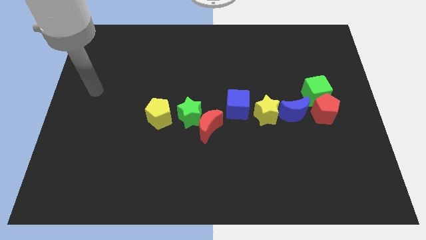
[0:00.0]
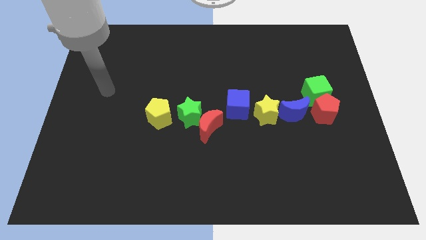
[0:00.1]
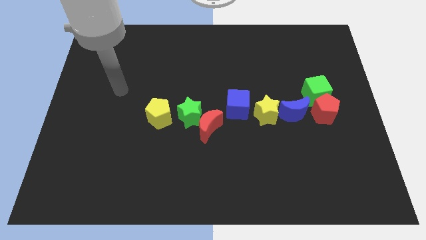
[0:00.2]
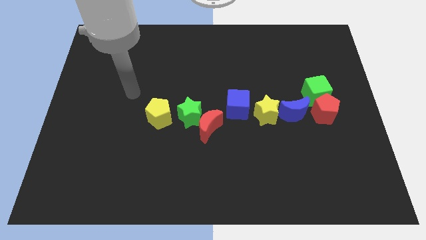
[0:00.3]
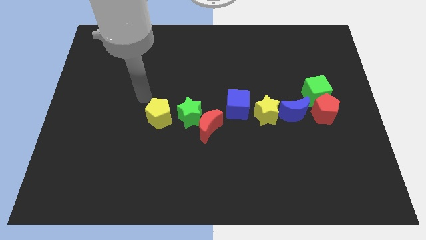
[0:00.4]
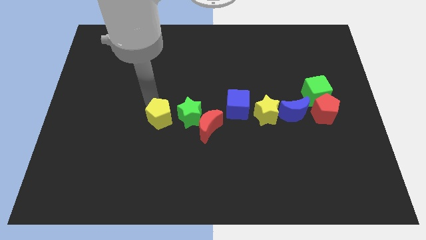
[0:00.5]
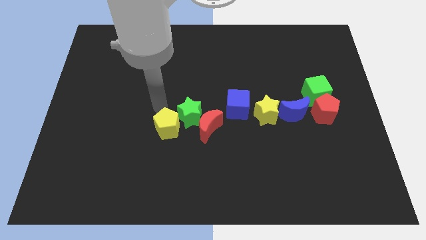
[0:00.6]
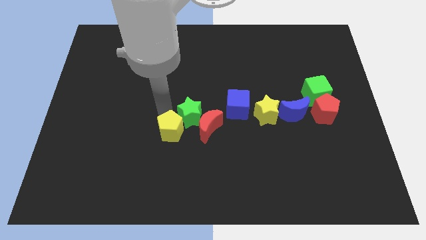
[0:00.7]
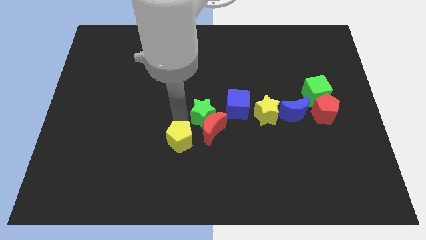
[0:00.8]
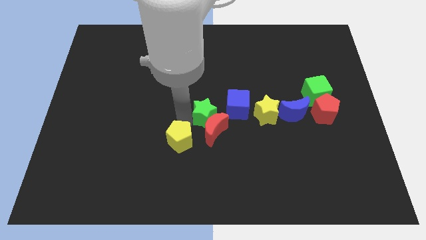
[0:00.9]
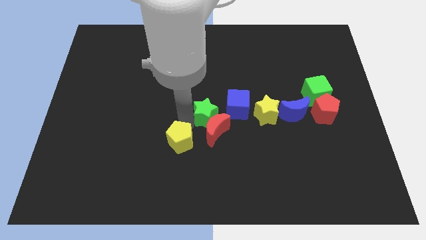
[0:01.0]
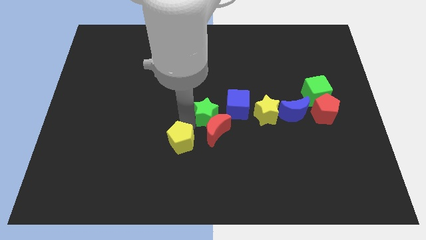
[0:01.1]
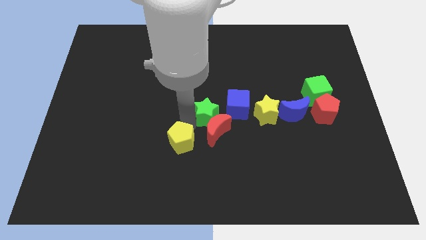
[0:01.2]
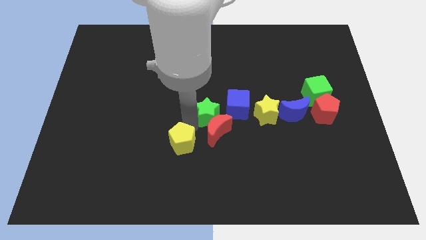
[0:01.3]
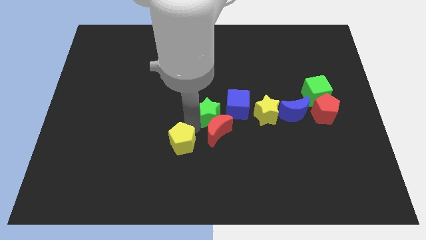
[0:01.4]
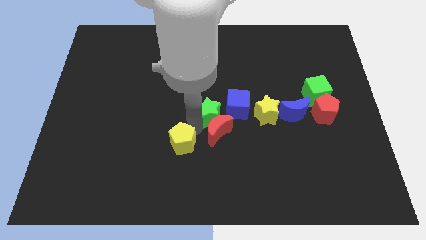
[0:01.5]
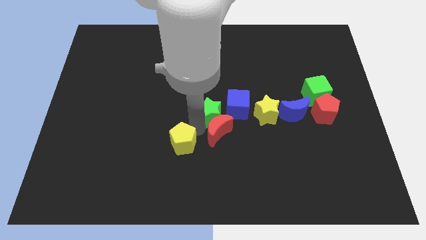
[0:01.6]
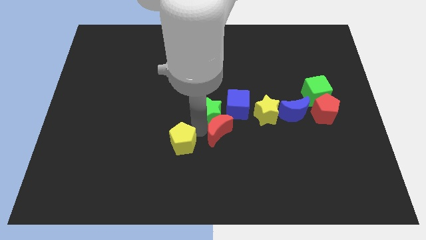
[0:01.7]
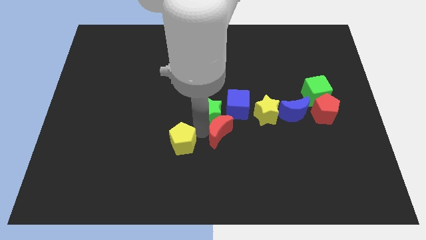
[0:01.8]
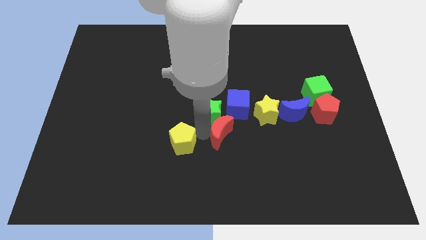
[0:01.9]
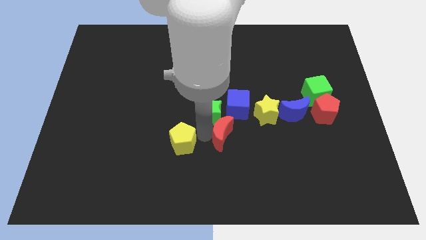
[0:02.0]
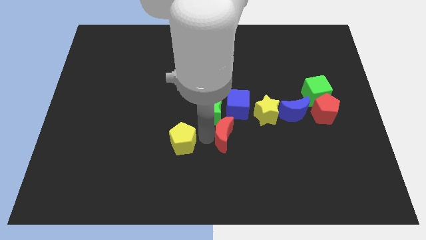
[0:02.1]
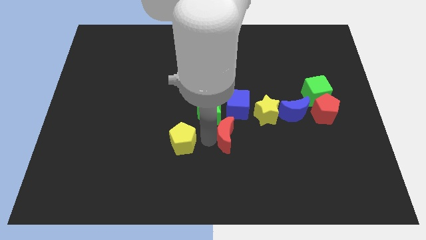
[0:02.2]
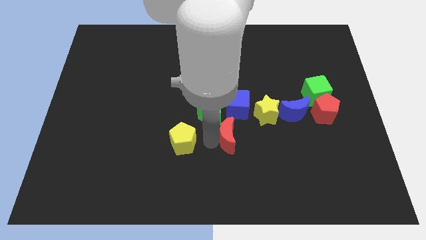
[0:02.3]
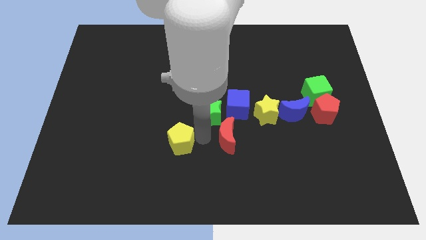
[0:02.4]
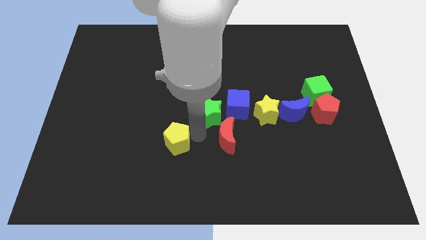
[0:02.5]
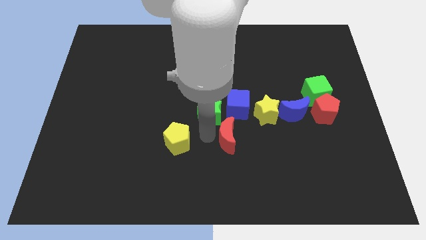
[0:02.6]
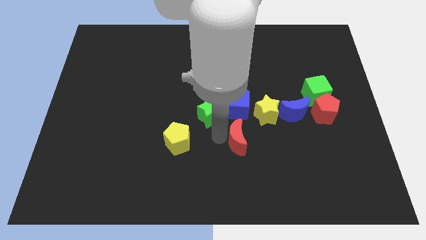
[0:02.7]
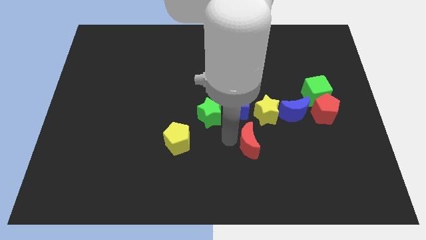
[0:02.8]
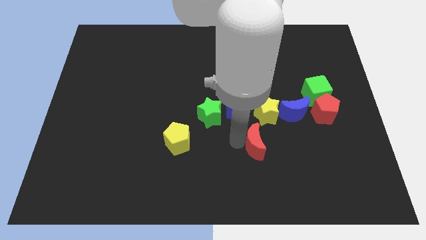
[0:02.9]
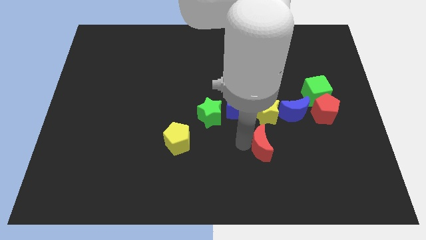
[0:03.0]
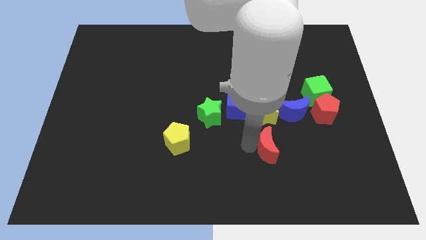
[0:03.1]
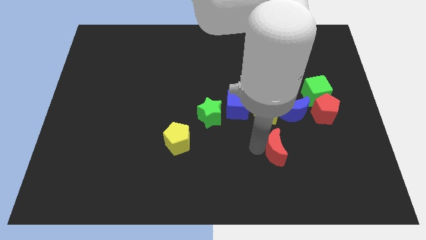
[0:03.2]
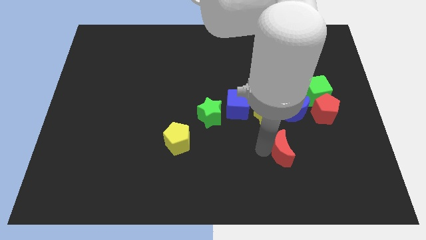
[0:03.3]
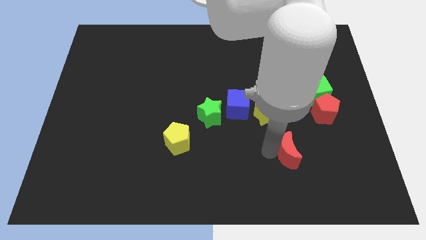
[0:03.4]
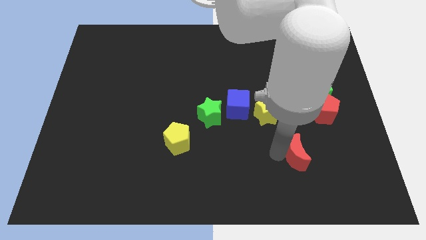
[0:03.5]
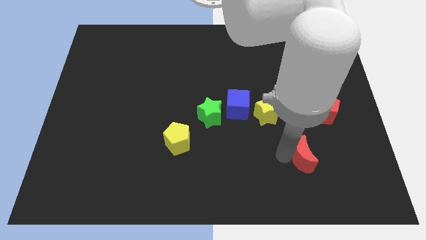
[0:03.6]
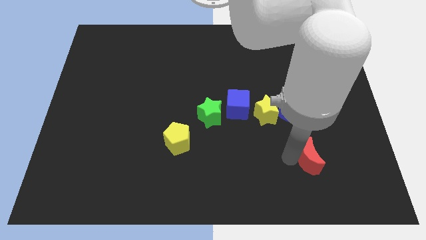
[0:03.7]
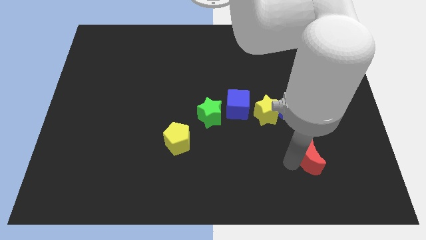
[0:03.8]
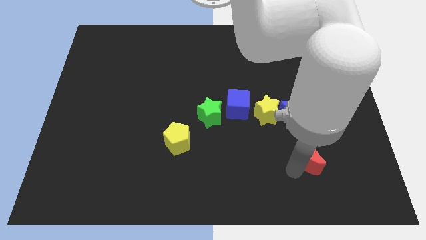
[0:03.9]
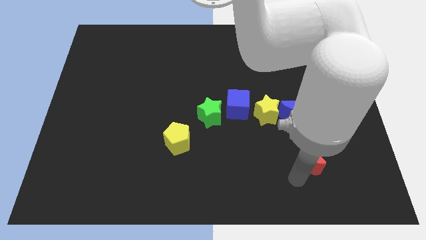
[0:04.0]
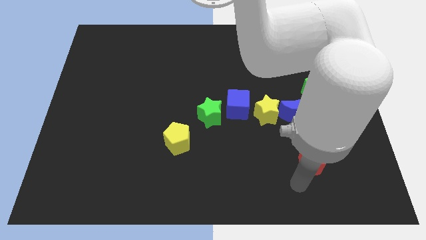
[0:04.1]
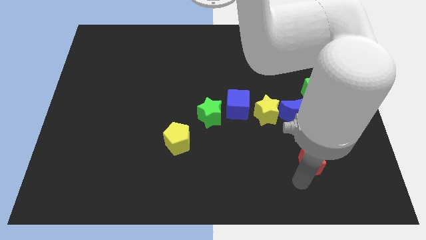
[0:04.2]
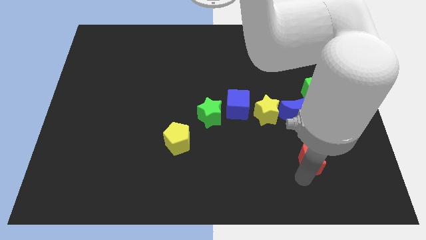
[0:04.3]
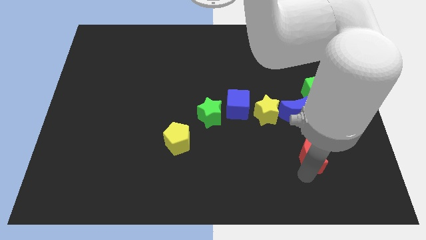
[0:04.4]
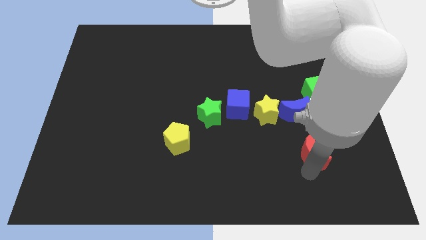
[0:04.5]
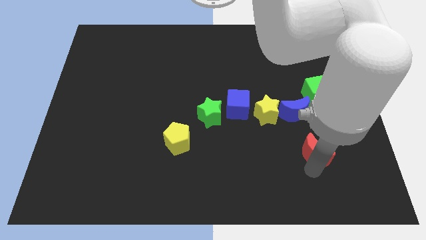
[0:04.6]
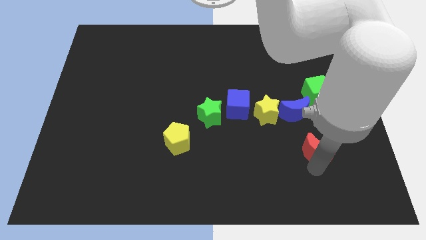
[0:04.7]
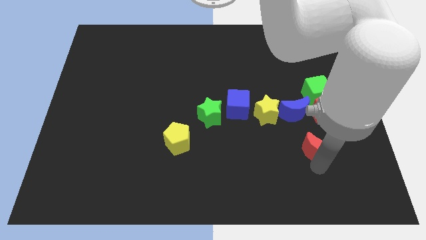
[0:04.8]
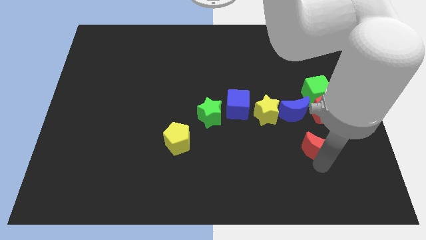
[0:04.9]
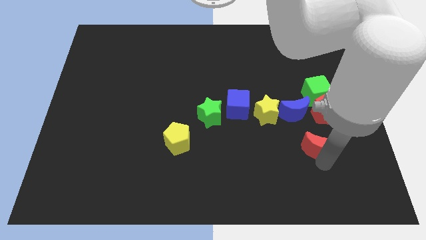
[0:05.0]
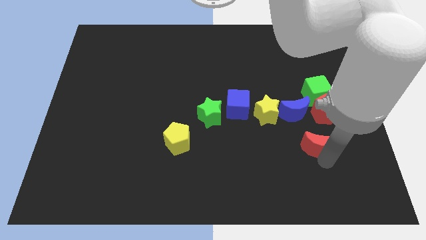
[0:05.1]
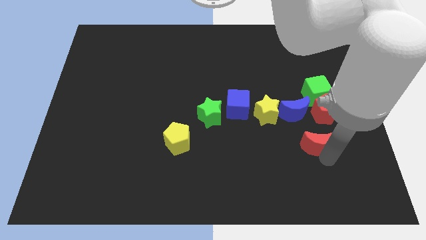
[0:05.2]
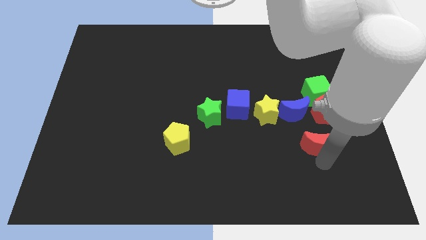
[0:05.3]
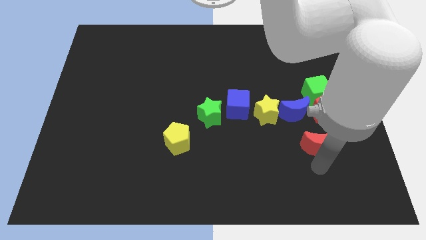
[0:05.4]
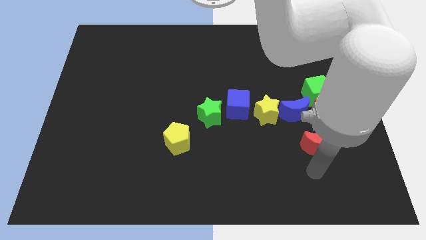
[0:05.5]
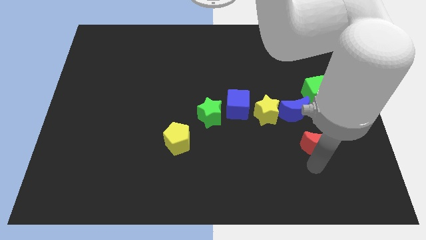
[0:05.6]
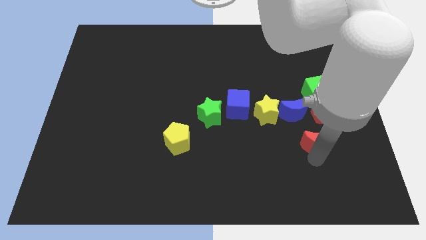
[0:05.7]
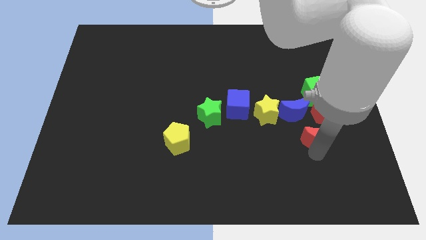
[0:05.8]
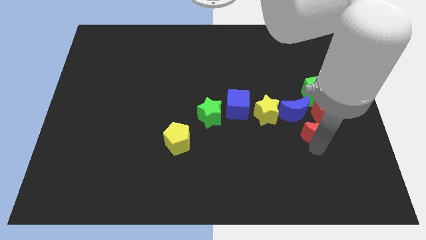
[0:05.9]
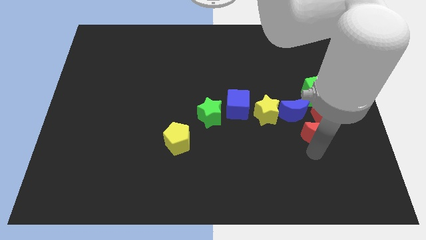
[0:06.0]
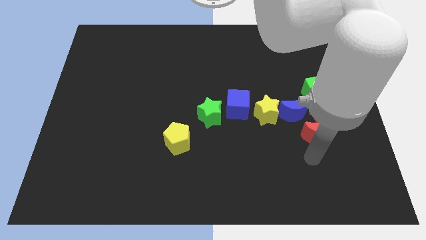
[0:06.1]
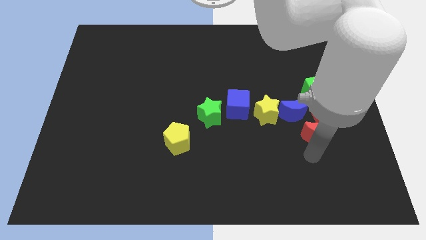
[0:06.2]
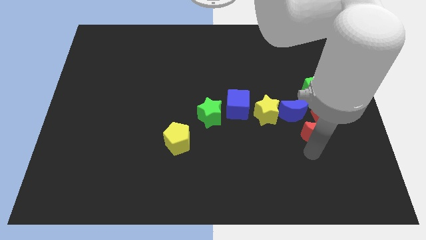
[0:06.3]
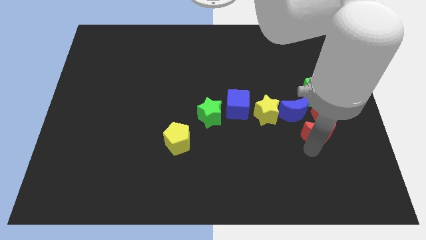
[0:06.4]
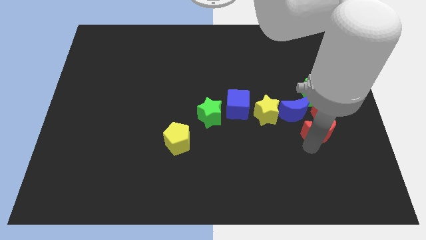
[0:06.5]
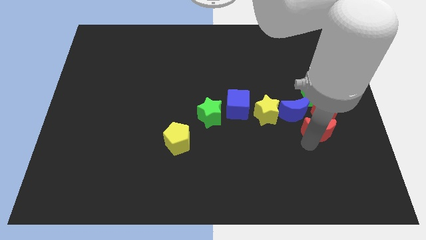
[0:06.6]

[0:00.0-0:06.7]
push the red moon next to the red pentagon

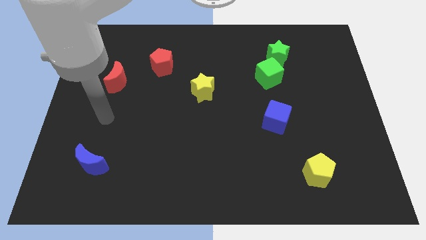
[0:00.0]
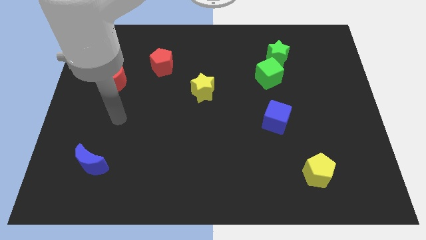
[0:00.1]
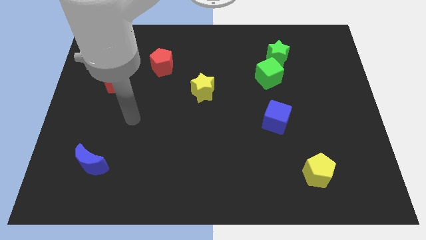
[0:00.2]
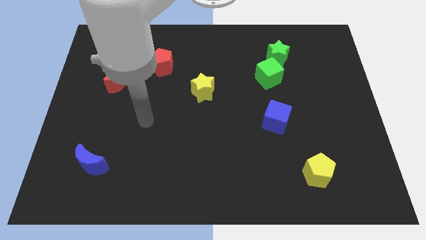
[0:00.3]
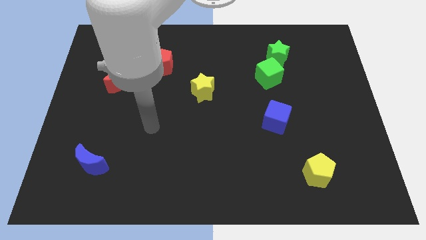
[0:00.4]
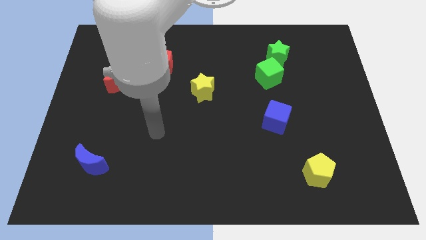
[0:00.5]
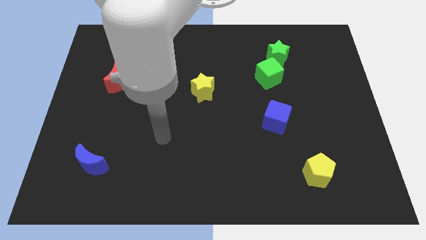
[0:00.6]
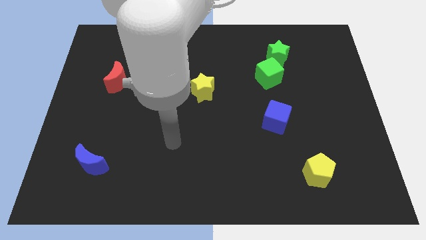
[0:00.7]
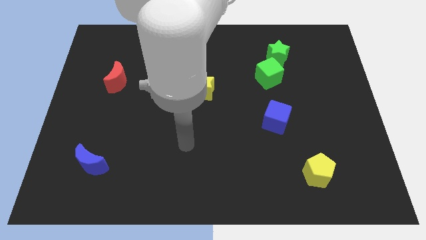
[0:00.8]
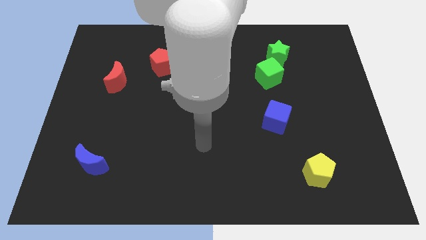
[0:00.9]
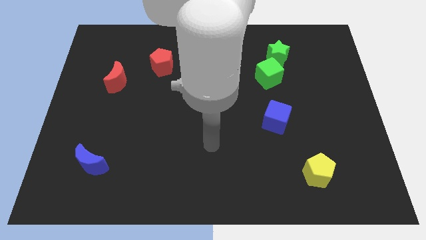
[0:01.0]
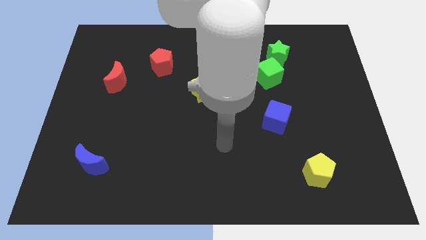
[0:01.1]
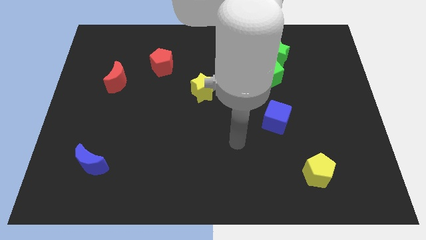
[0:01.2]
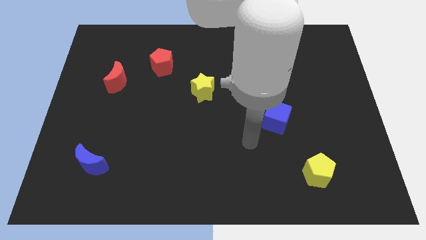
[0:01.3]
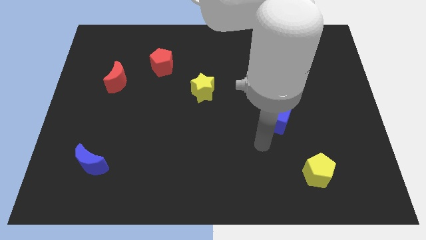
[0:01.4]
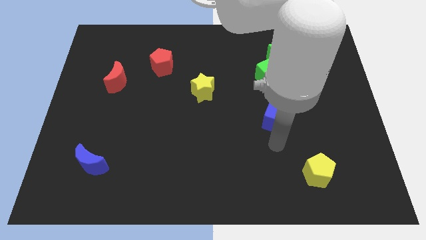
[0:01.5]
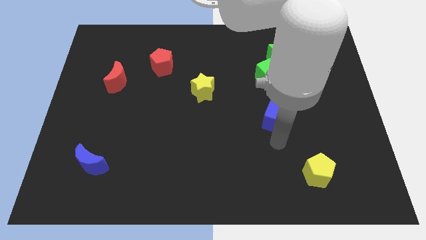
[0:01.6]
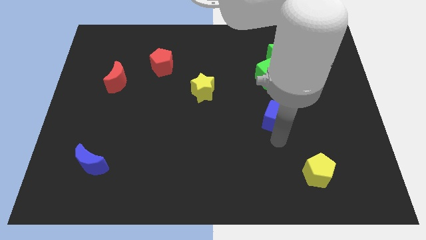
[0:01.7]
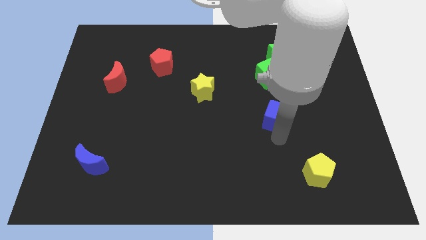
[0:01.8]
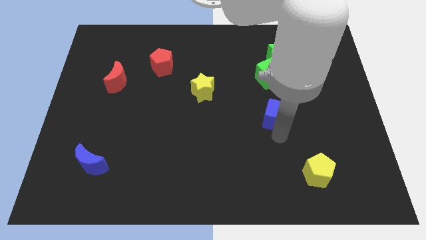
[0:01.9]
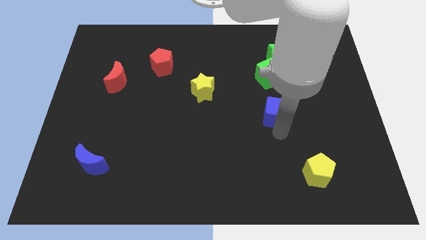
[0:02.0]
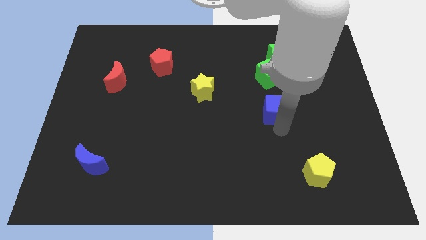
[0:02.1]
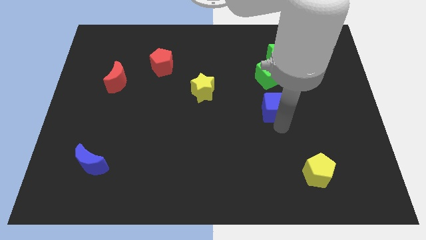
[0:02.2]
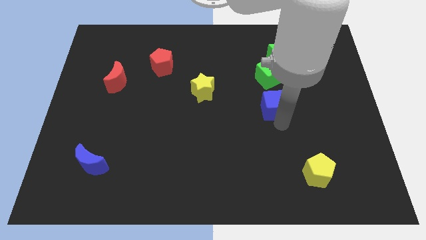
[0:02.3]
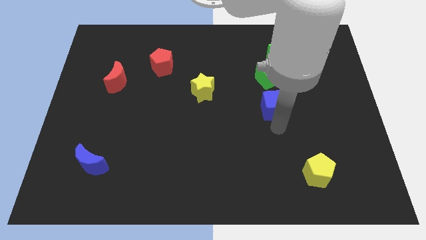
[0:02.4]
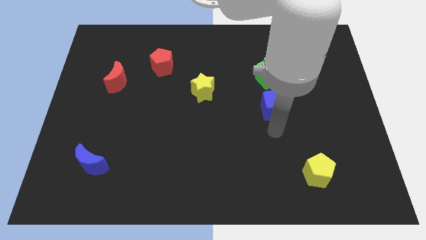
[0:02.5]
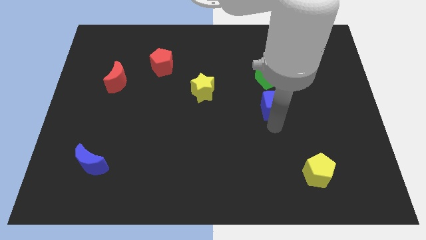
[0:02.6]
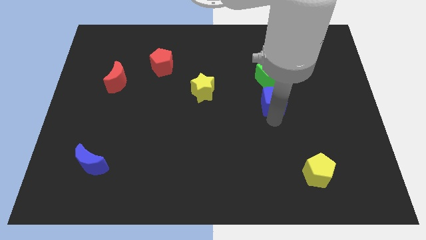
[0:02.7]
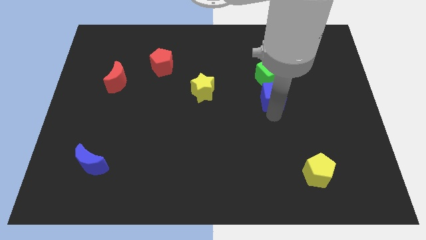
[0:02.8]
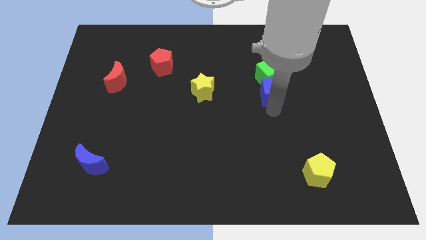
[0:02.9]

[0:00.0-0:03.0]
push the blue cube towards the green cube
